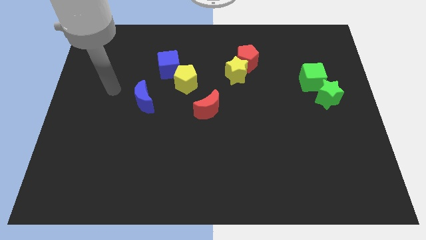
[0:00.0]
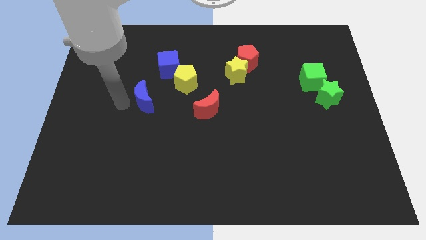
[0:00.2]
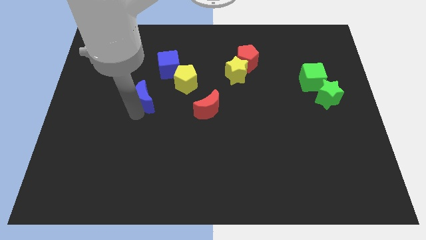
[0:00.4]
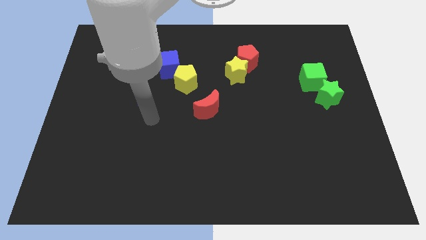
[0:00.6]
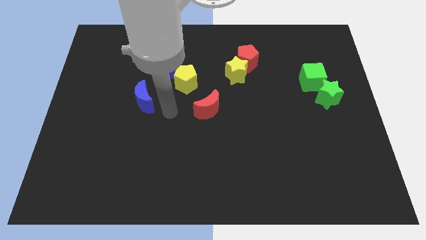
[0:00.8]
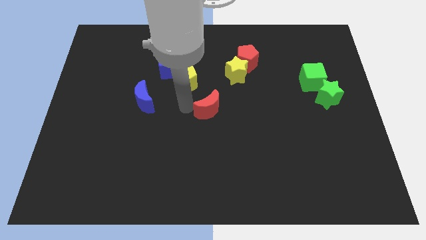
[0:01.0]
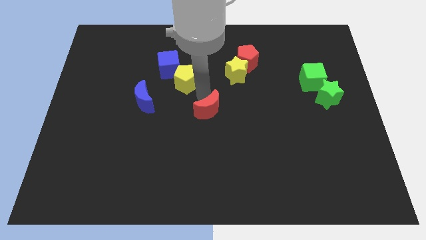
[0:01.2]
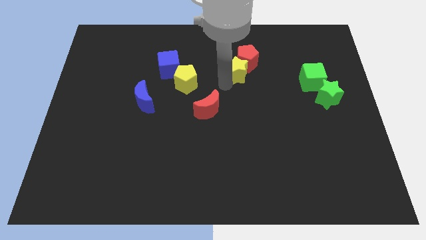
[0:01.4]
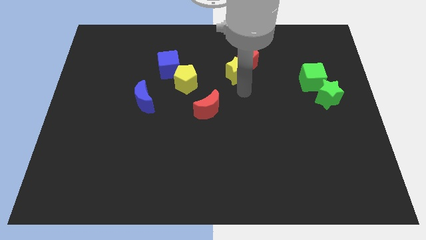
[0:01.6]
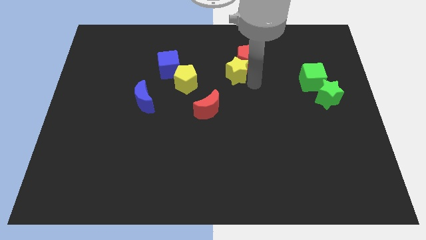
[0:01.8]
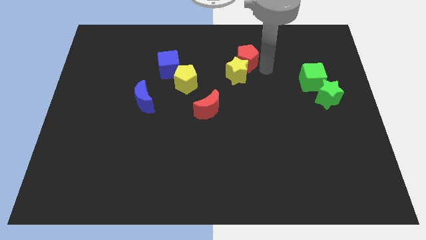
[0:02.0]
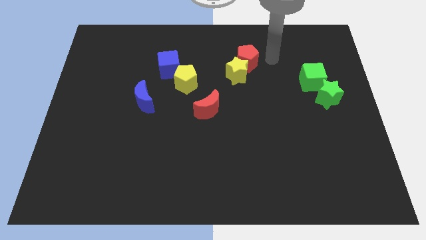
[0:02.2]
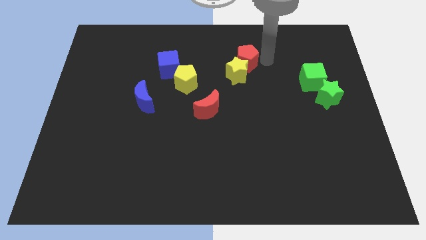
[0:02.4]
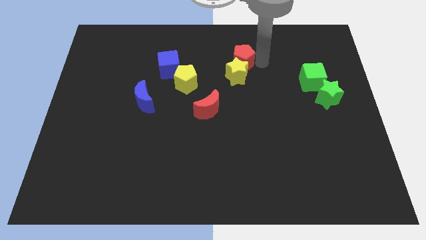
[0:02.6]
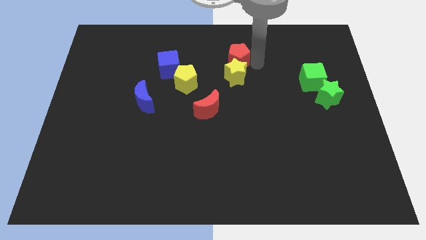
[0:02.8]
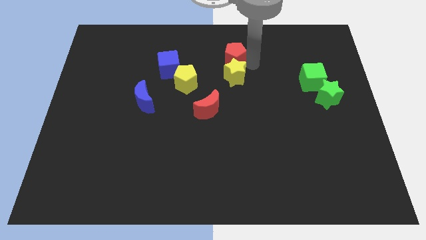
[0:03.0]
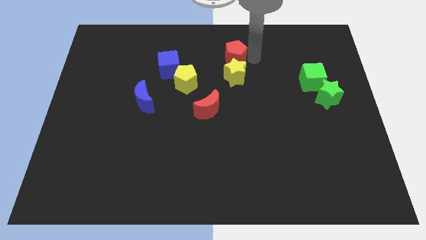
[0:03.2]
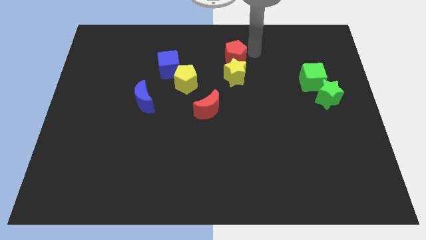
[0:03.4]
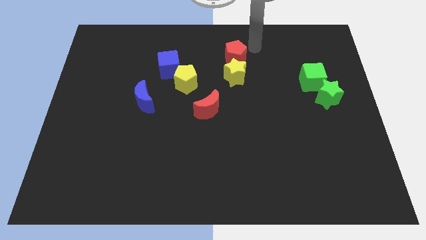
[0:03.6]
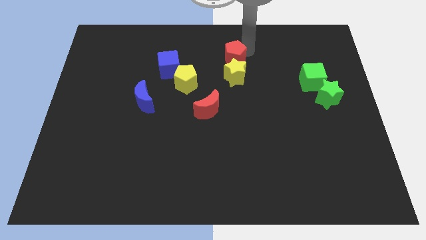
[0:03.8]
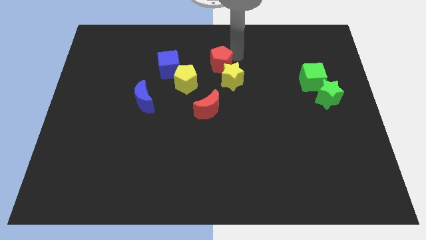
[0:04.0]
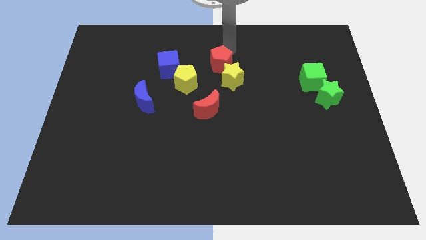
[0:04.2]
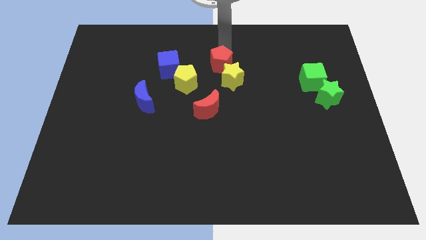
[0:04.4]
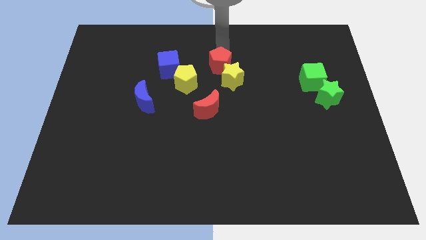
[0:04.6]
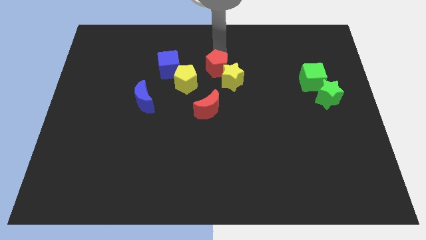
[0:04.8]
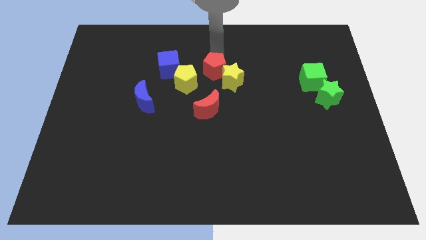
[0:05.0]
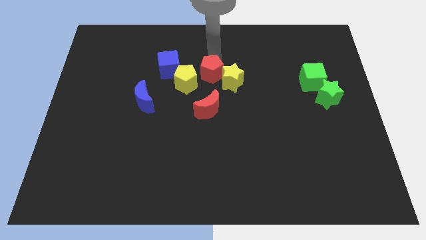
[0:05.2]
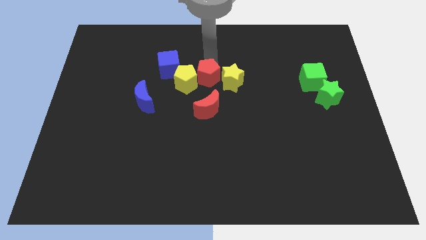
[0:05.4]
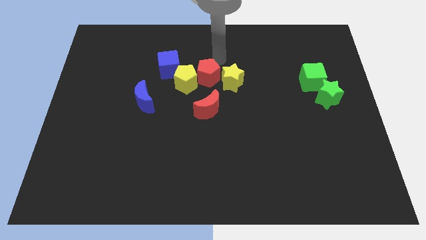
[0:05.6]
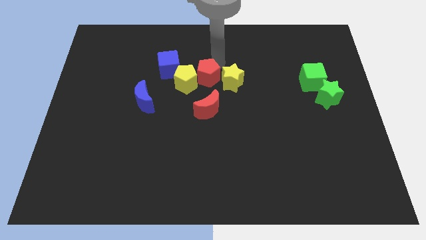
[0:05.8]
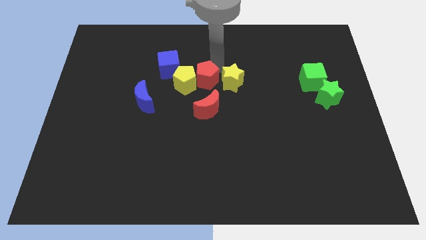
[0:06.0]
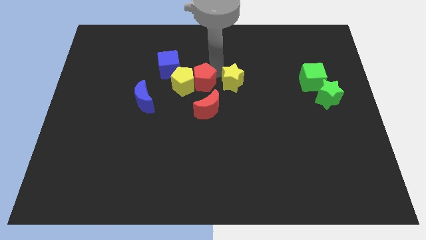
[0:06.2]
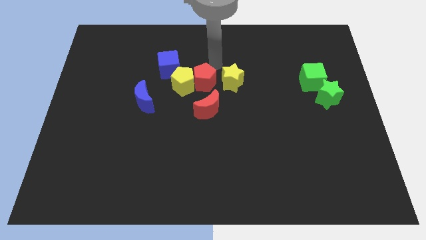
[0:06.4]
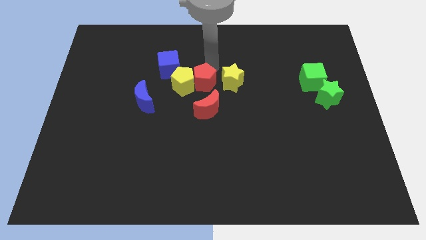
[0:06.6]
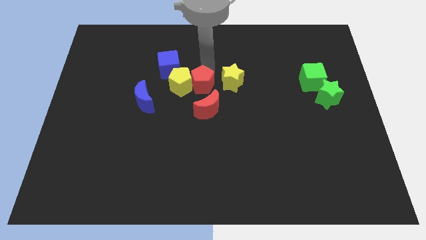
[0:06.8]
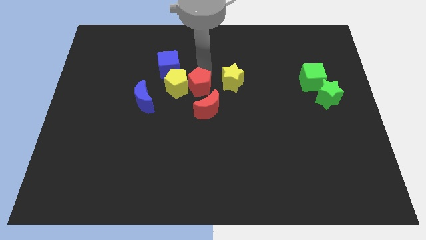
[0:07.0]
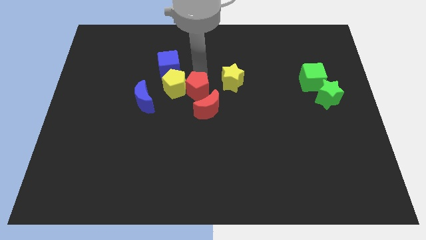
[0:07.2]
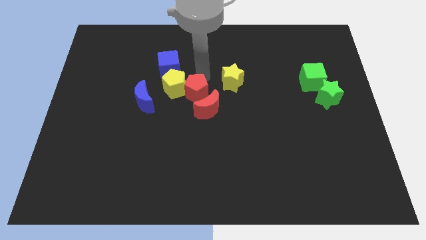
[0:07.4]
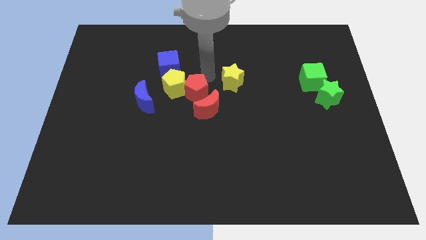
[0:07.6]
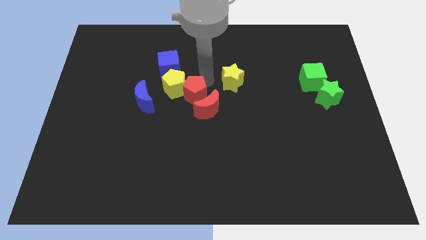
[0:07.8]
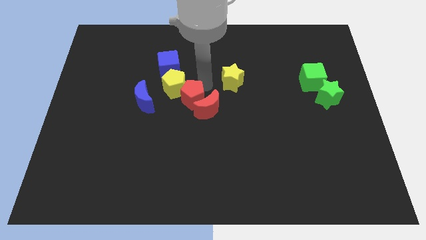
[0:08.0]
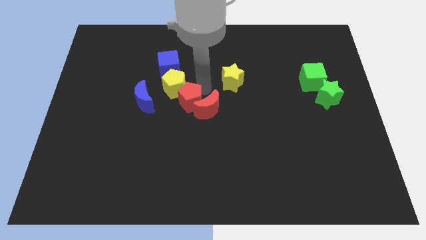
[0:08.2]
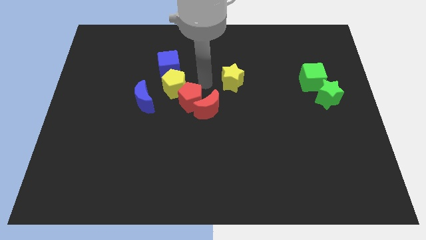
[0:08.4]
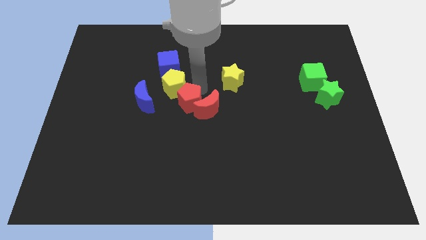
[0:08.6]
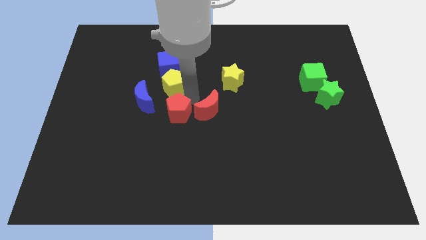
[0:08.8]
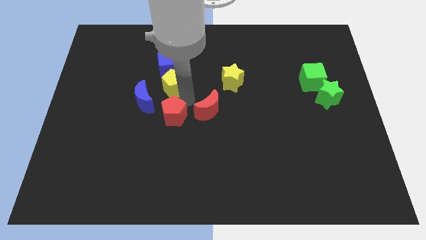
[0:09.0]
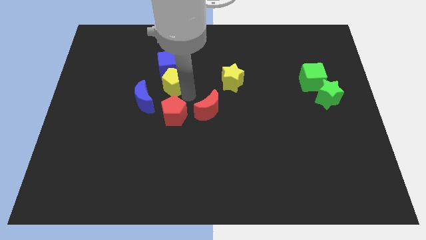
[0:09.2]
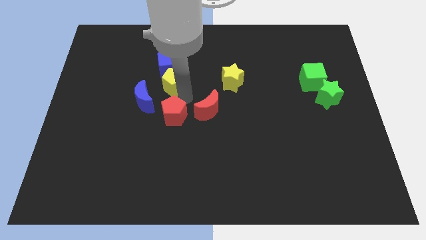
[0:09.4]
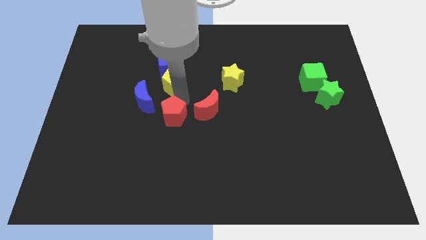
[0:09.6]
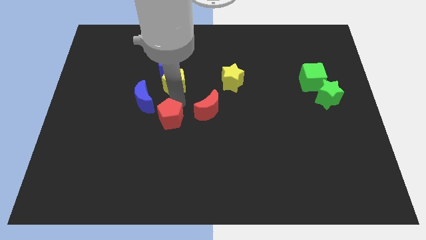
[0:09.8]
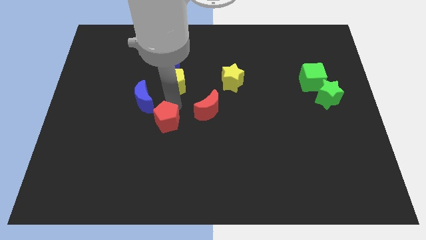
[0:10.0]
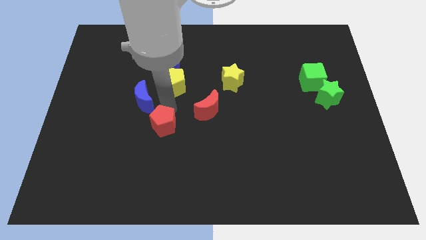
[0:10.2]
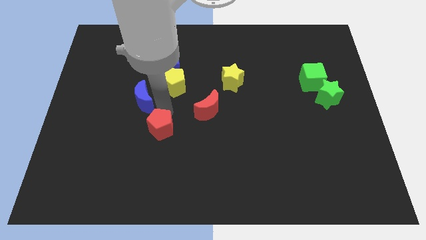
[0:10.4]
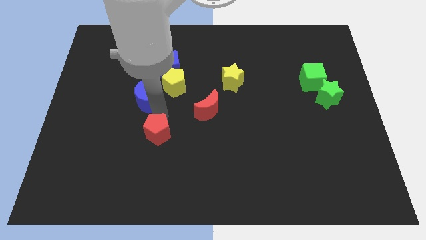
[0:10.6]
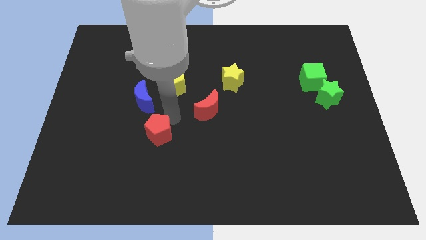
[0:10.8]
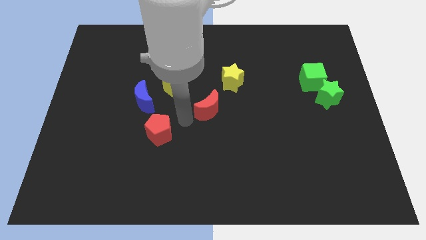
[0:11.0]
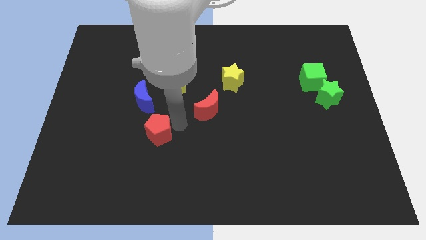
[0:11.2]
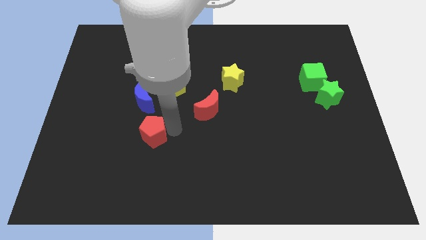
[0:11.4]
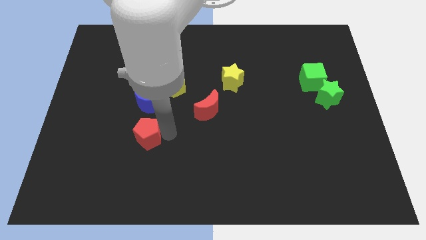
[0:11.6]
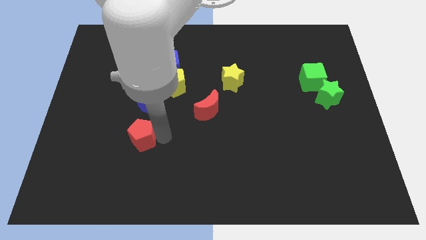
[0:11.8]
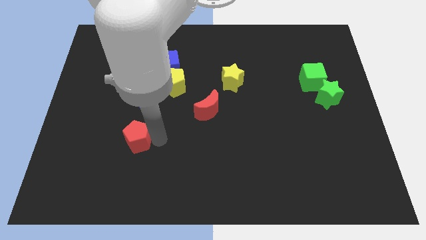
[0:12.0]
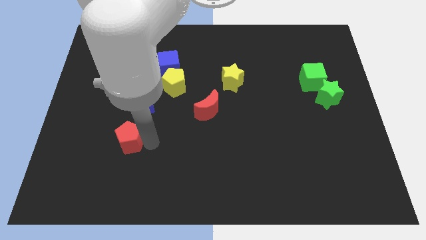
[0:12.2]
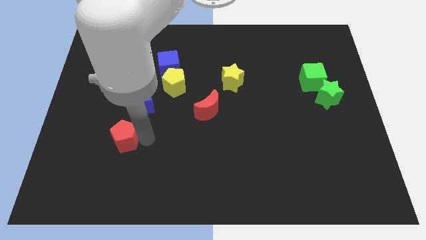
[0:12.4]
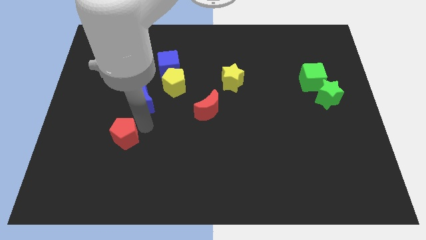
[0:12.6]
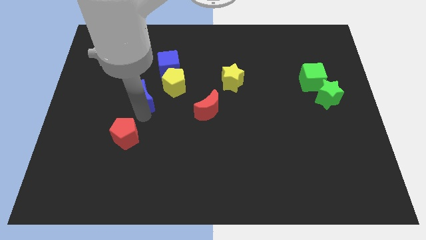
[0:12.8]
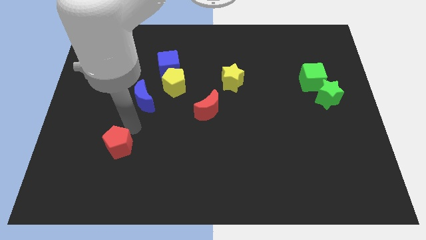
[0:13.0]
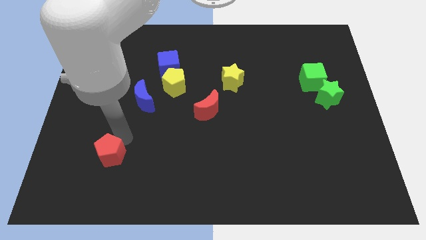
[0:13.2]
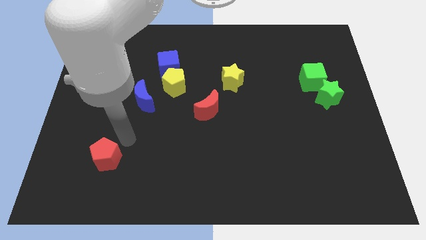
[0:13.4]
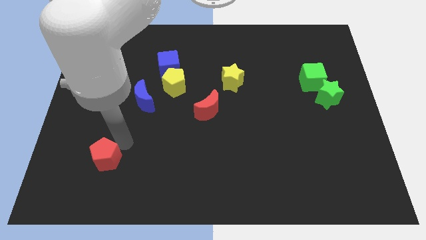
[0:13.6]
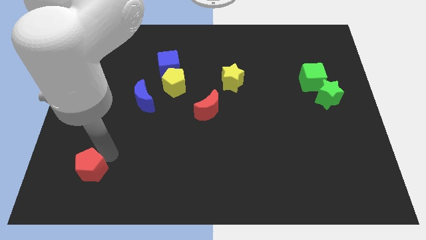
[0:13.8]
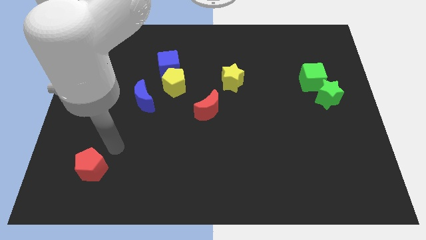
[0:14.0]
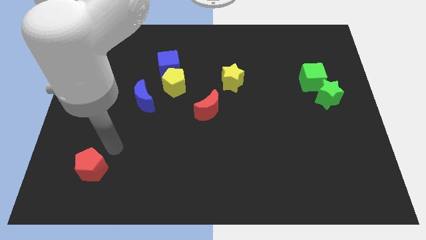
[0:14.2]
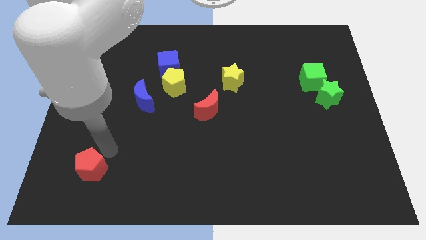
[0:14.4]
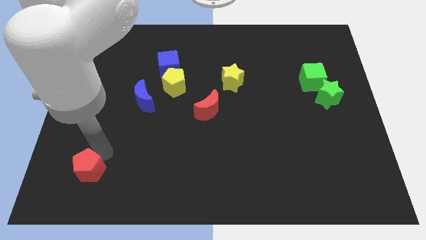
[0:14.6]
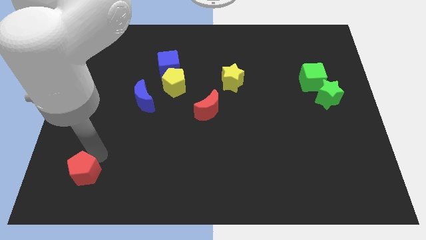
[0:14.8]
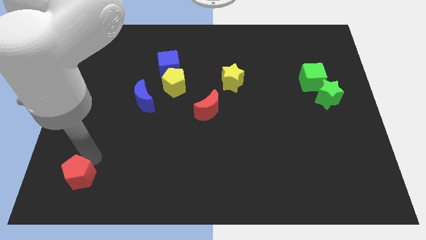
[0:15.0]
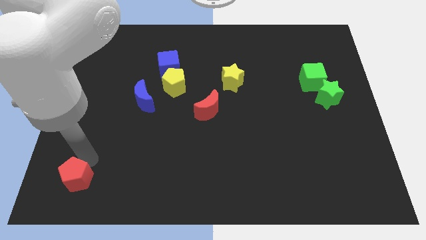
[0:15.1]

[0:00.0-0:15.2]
slide the red pentagon to the lower left corner
